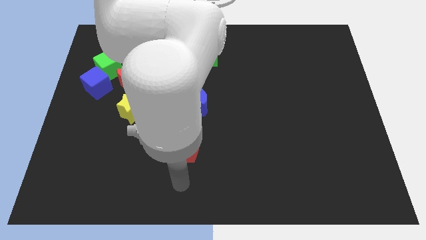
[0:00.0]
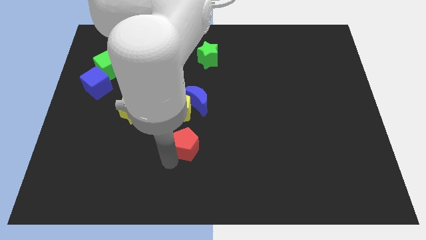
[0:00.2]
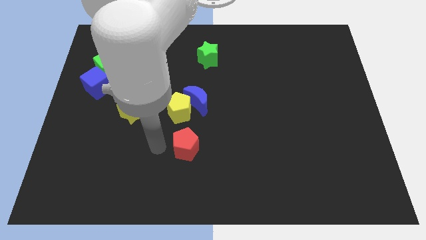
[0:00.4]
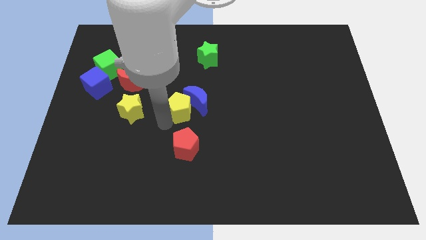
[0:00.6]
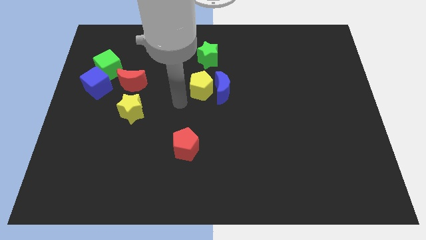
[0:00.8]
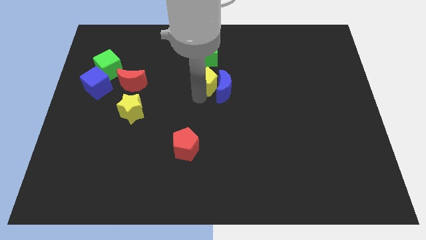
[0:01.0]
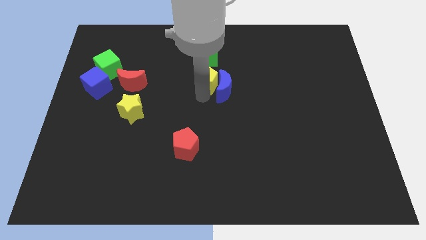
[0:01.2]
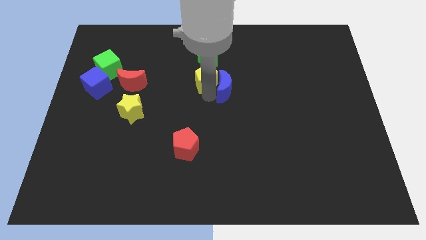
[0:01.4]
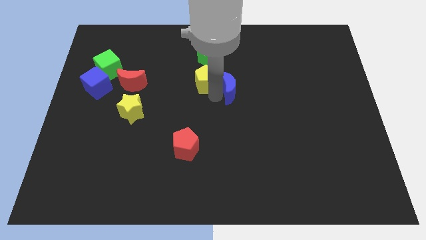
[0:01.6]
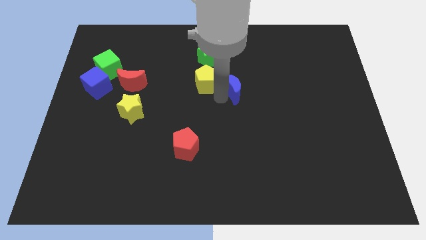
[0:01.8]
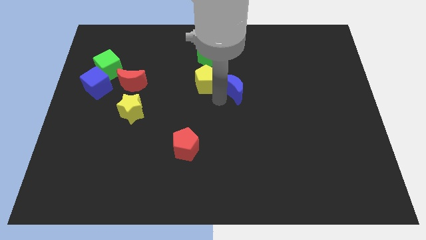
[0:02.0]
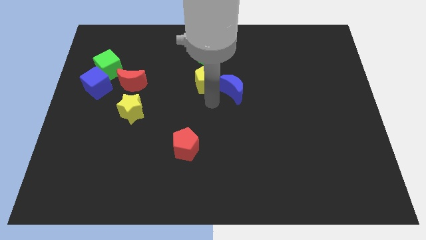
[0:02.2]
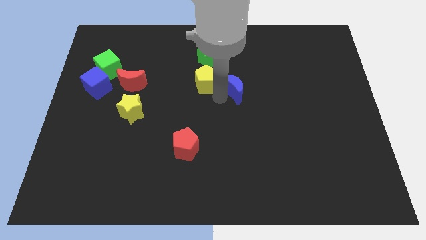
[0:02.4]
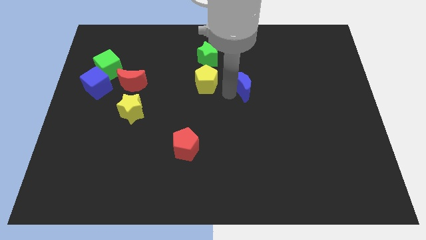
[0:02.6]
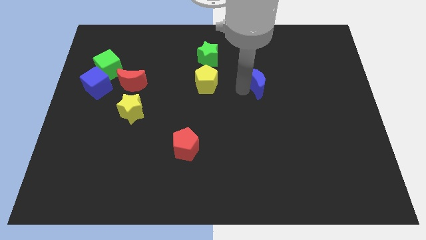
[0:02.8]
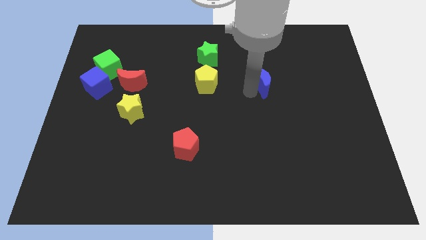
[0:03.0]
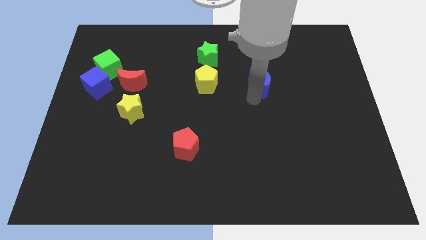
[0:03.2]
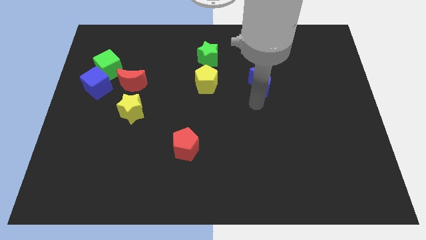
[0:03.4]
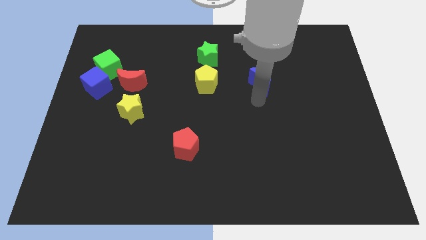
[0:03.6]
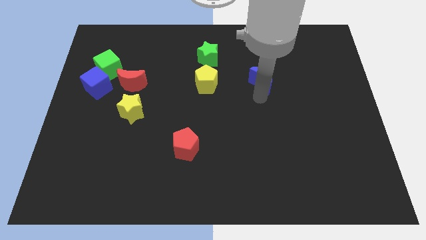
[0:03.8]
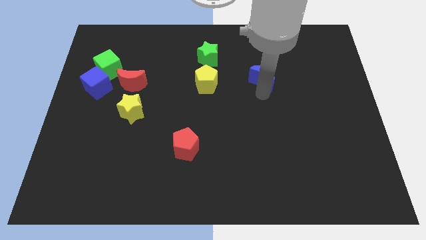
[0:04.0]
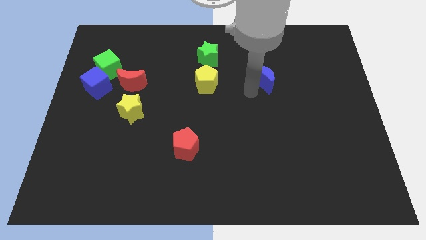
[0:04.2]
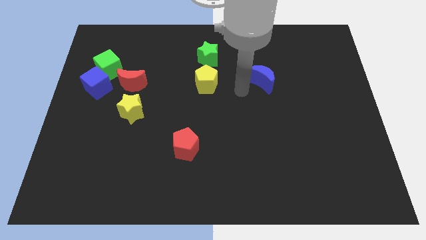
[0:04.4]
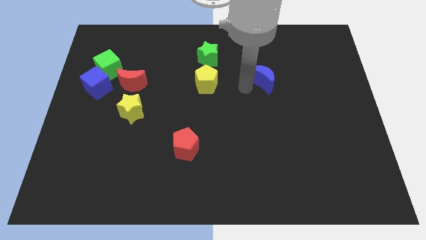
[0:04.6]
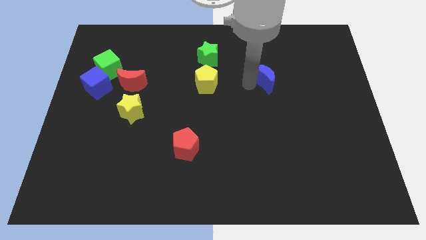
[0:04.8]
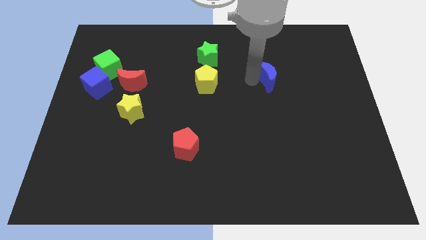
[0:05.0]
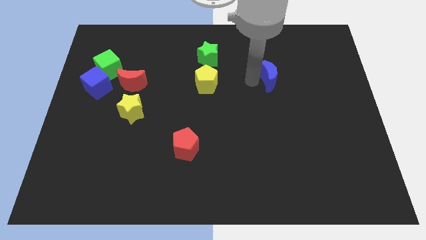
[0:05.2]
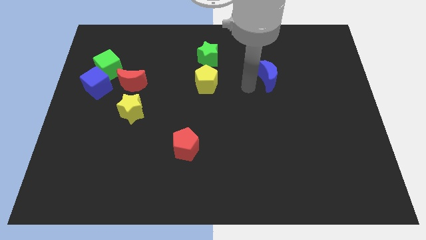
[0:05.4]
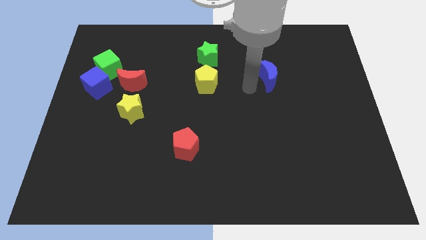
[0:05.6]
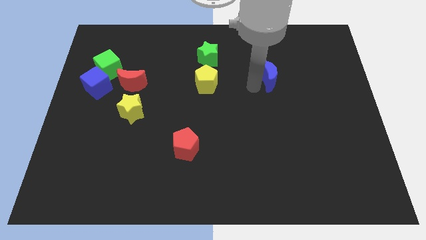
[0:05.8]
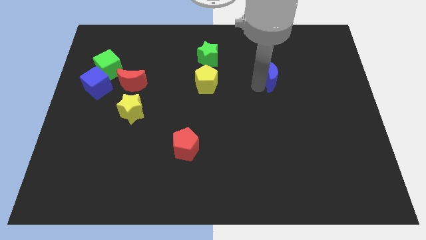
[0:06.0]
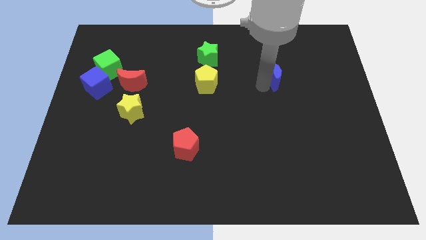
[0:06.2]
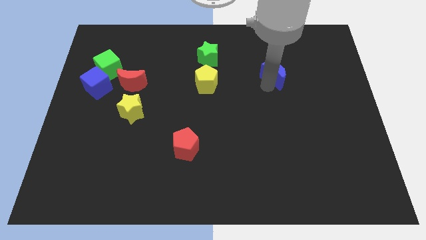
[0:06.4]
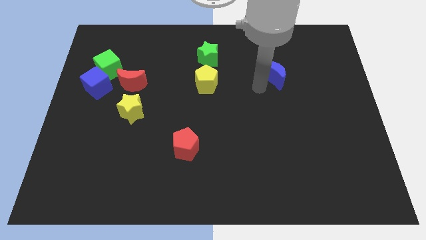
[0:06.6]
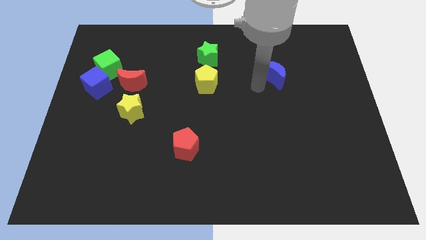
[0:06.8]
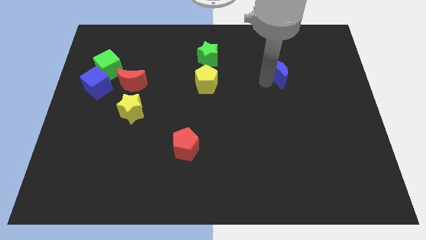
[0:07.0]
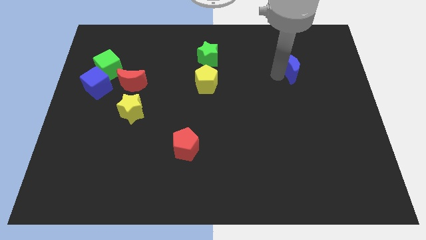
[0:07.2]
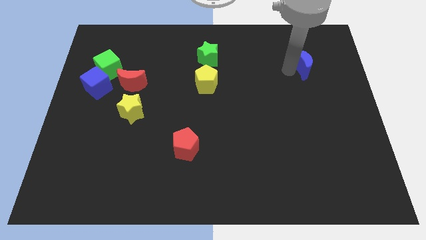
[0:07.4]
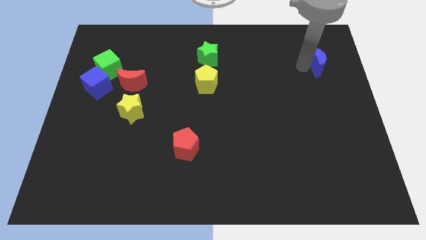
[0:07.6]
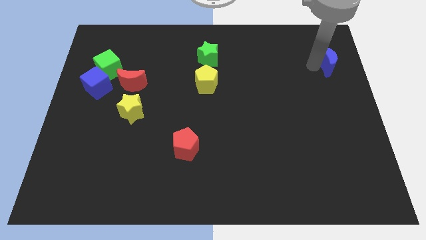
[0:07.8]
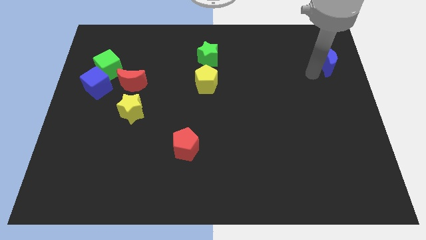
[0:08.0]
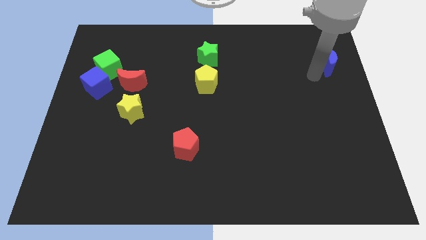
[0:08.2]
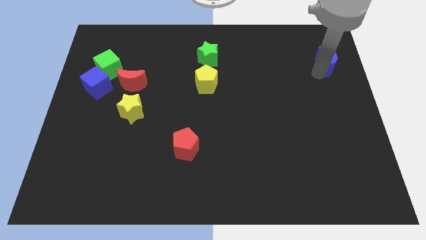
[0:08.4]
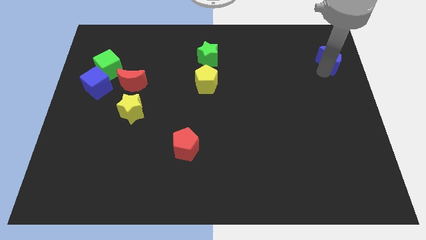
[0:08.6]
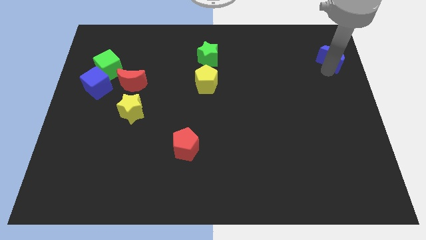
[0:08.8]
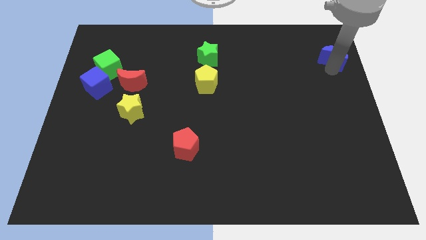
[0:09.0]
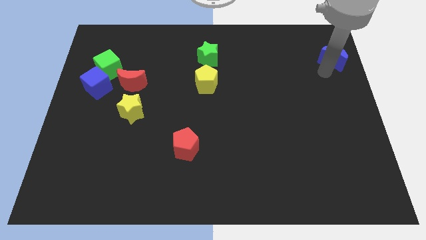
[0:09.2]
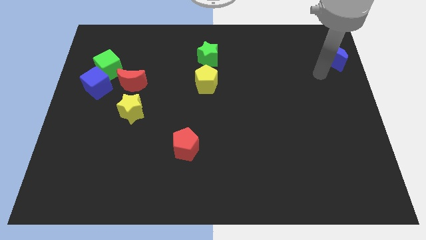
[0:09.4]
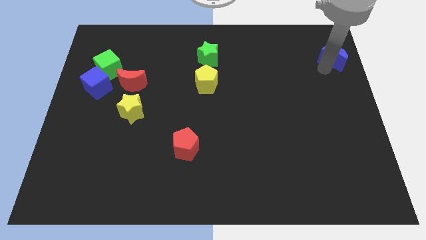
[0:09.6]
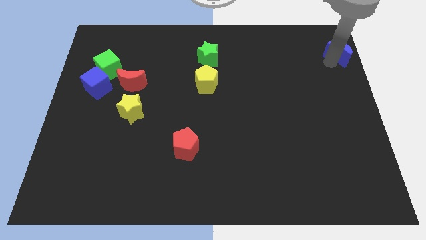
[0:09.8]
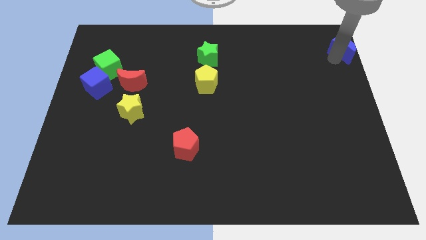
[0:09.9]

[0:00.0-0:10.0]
slide the blue moon to the top right

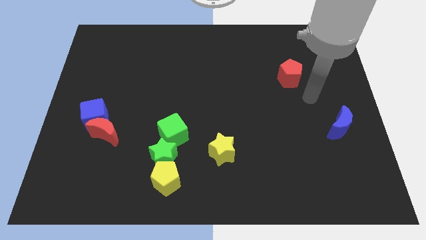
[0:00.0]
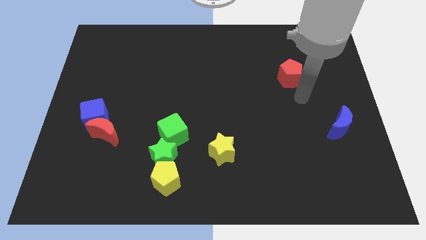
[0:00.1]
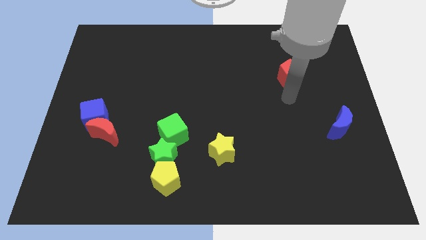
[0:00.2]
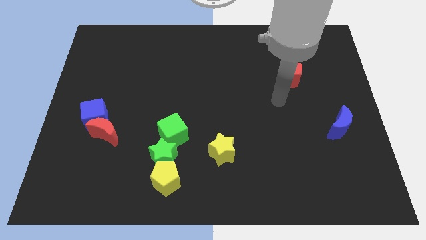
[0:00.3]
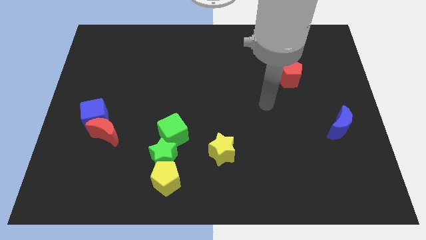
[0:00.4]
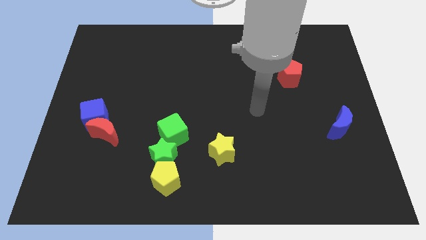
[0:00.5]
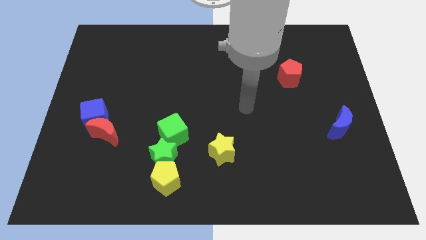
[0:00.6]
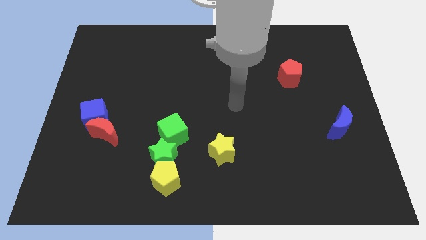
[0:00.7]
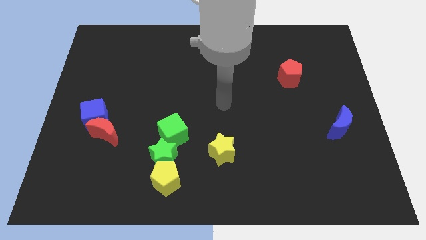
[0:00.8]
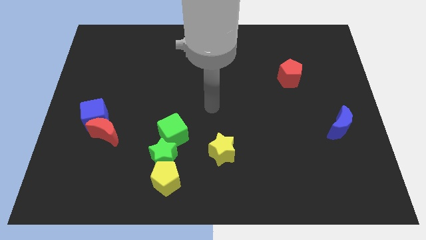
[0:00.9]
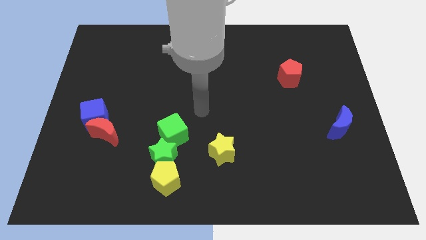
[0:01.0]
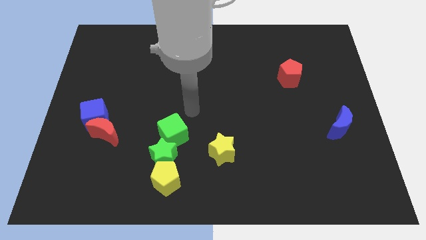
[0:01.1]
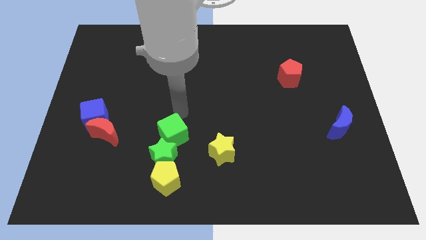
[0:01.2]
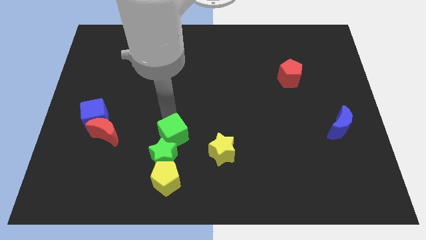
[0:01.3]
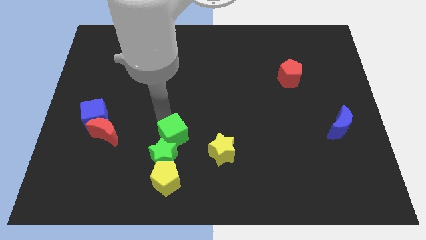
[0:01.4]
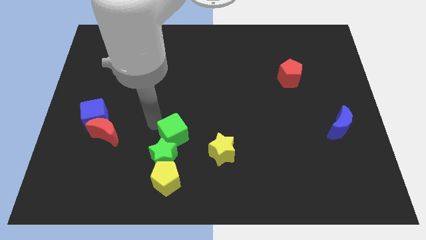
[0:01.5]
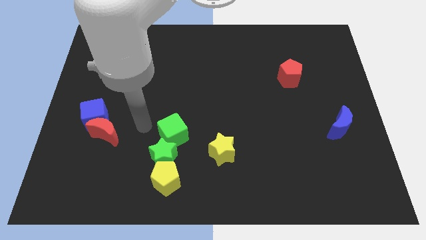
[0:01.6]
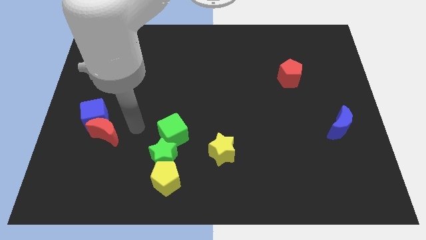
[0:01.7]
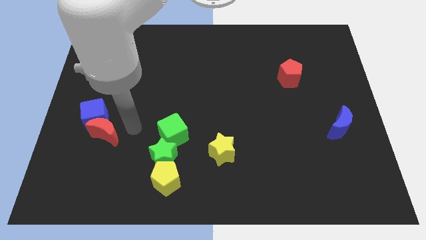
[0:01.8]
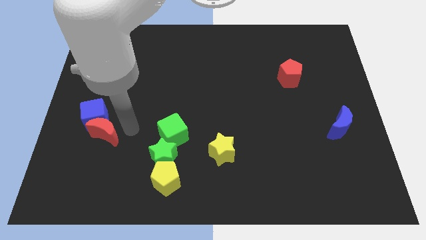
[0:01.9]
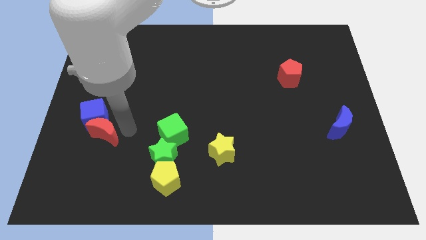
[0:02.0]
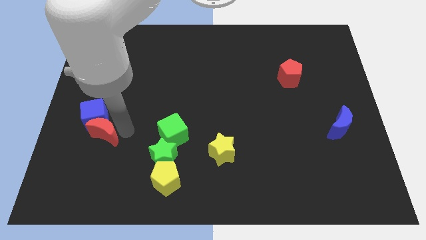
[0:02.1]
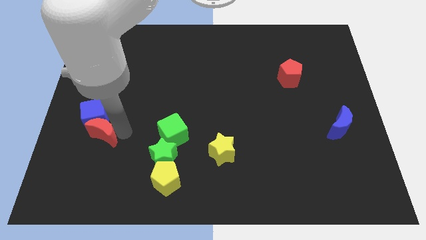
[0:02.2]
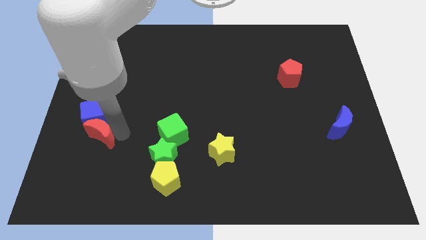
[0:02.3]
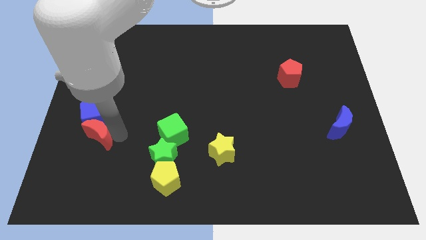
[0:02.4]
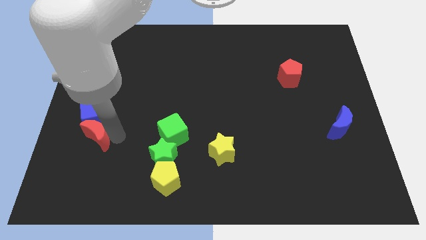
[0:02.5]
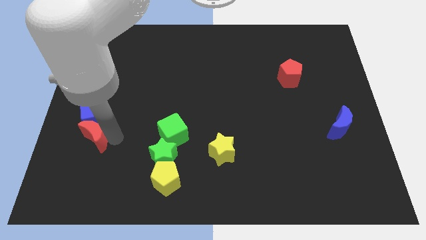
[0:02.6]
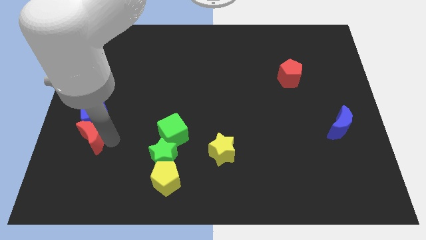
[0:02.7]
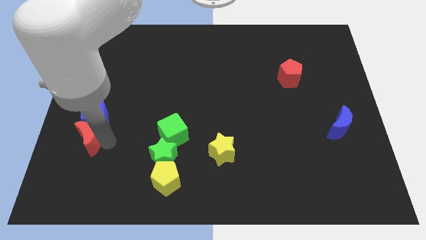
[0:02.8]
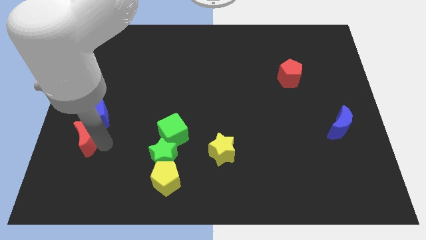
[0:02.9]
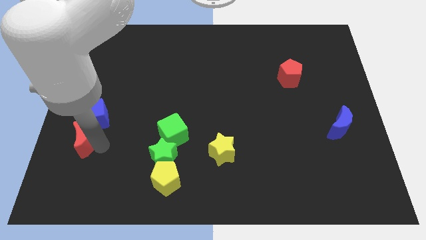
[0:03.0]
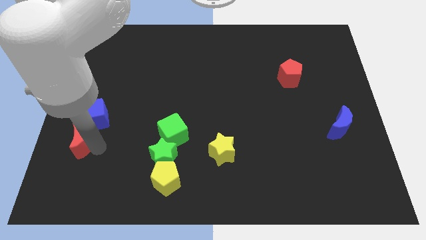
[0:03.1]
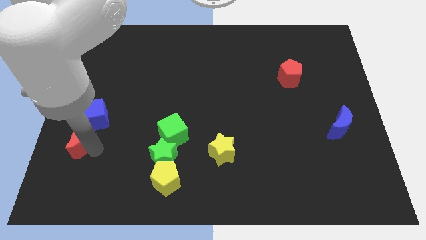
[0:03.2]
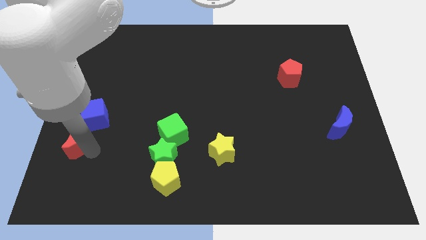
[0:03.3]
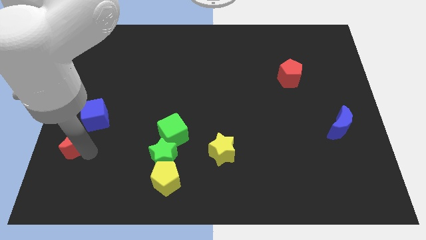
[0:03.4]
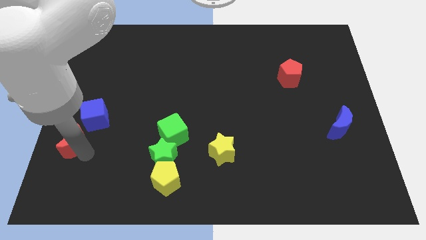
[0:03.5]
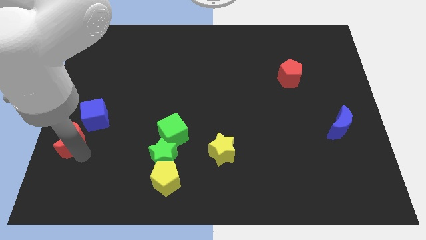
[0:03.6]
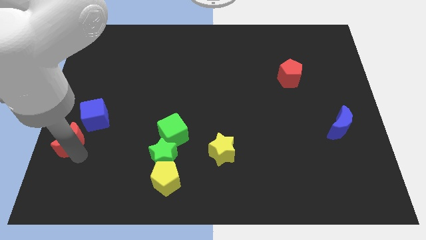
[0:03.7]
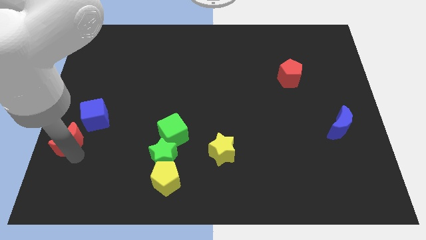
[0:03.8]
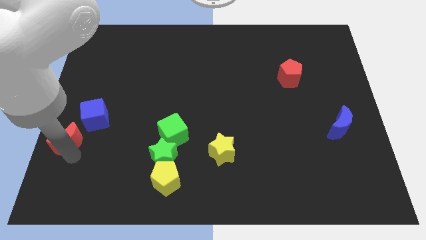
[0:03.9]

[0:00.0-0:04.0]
move the red moon to the center left
